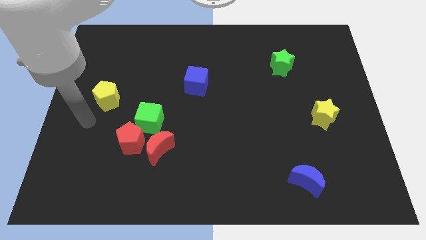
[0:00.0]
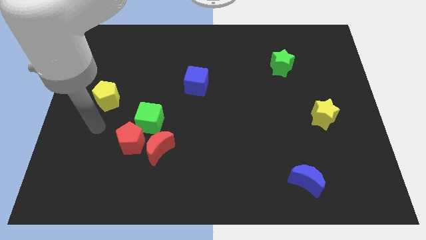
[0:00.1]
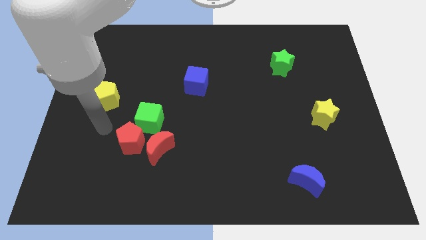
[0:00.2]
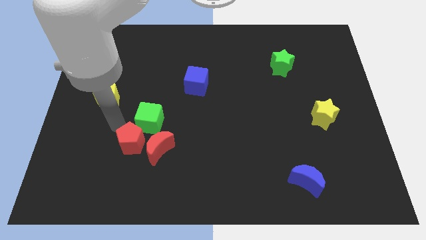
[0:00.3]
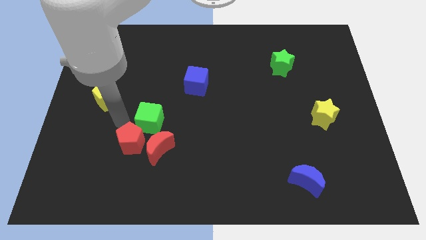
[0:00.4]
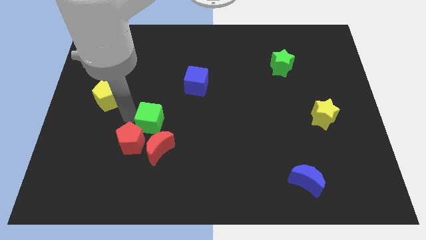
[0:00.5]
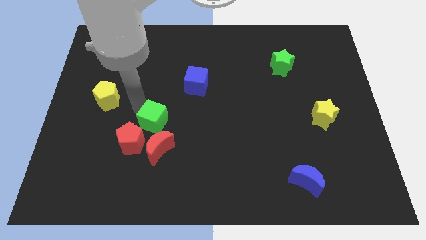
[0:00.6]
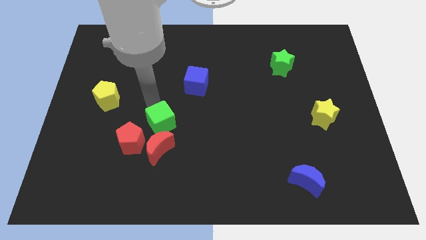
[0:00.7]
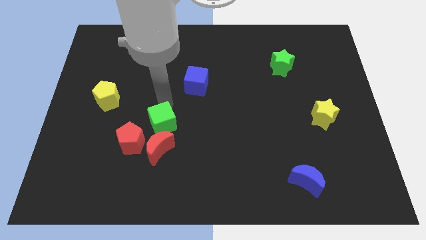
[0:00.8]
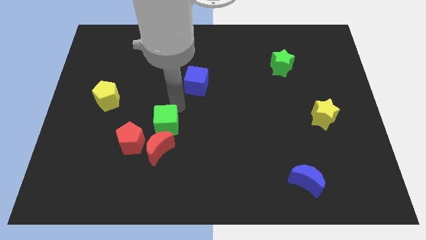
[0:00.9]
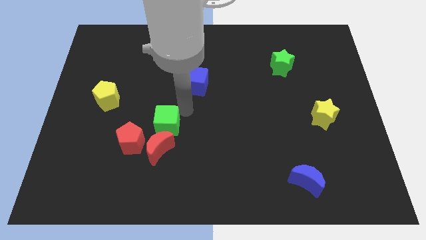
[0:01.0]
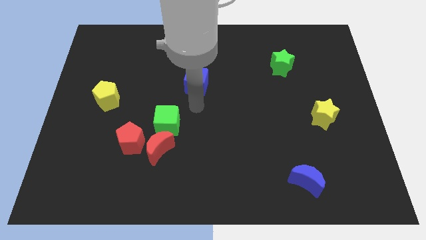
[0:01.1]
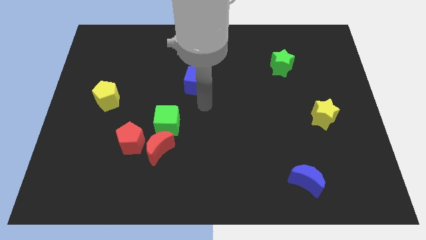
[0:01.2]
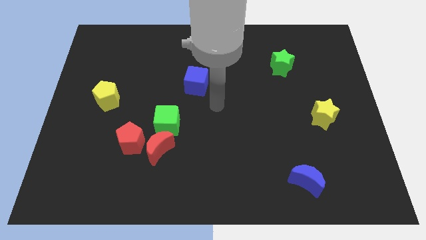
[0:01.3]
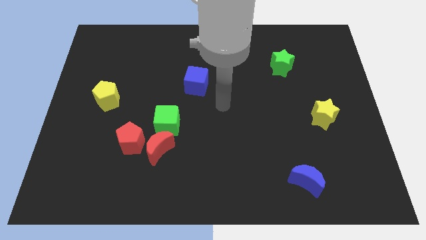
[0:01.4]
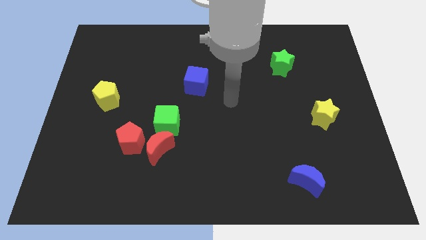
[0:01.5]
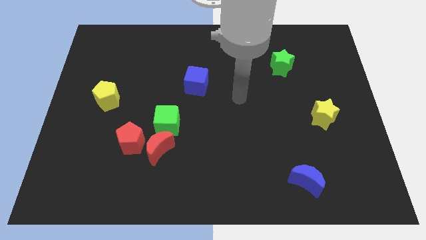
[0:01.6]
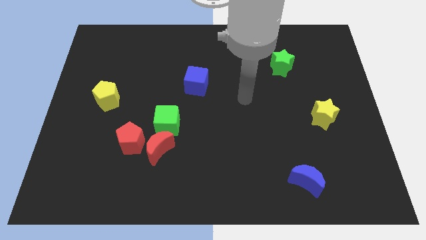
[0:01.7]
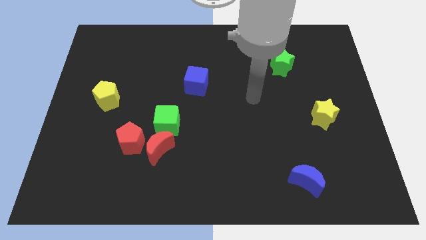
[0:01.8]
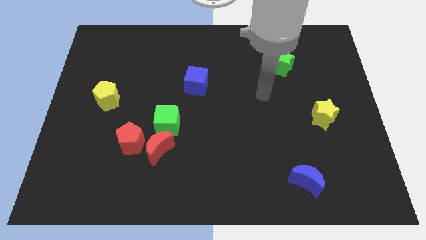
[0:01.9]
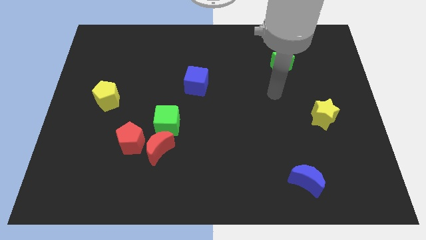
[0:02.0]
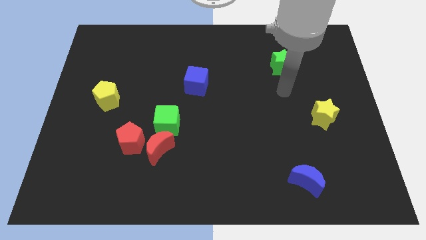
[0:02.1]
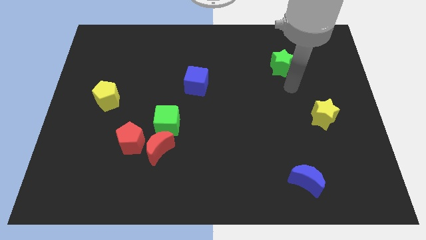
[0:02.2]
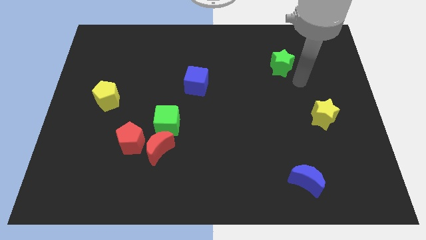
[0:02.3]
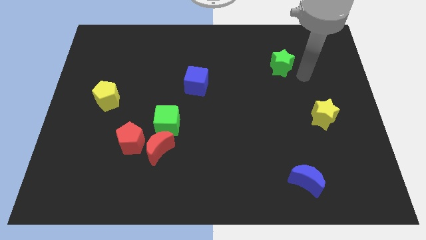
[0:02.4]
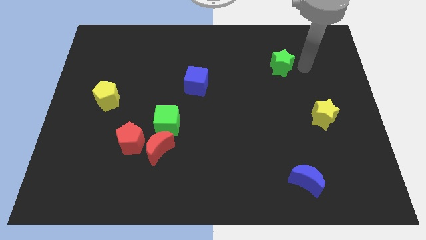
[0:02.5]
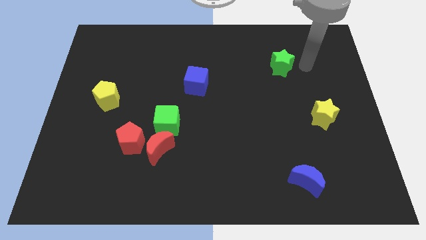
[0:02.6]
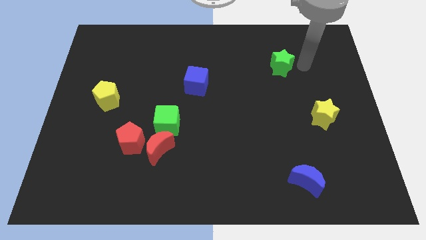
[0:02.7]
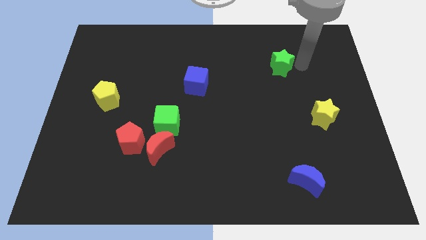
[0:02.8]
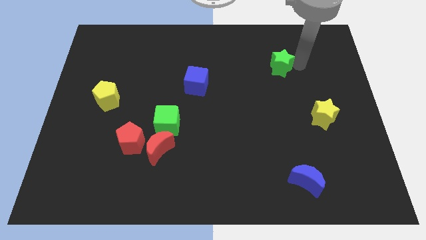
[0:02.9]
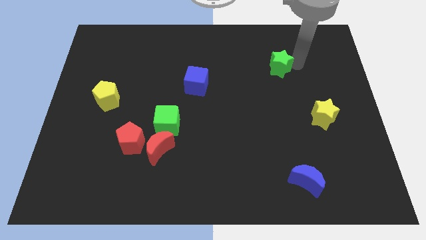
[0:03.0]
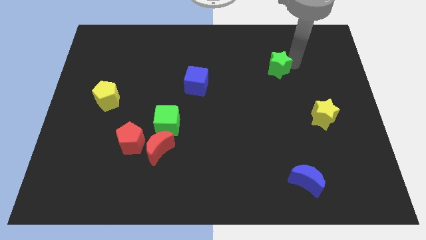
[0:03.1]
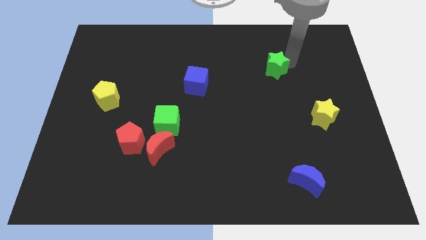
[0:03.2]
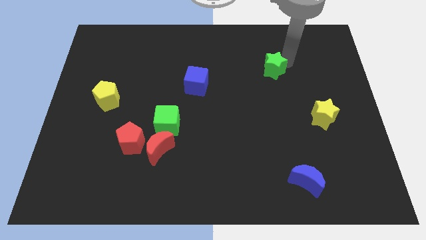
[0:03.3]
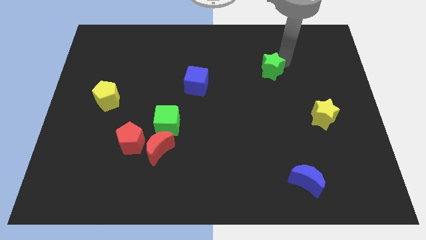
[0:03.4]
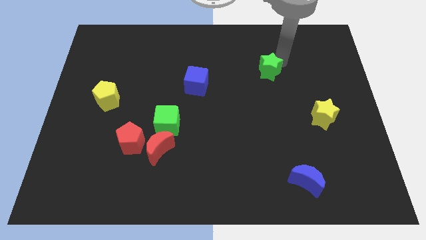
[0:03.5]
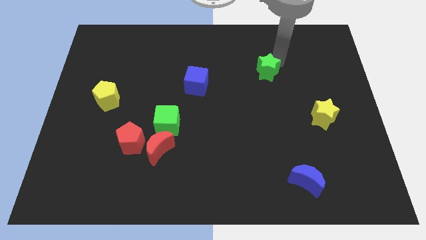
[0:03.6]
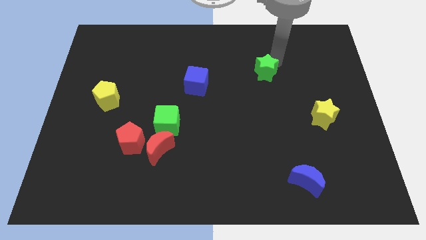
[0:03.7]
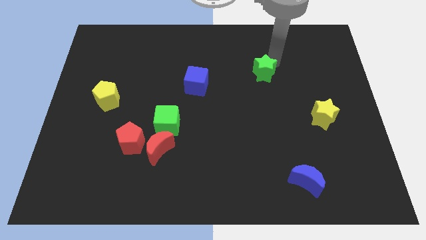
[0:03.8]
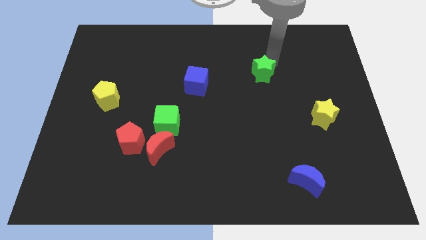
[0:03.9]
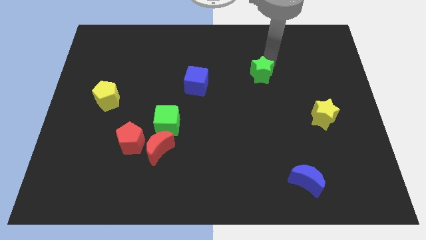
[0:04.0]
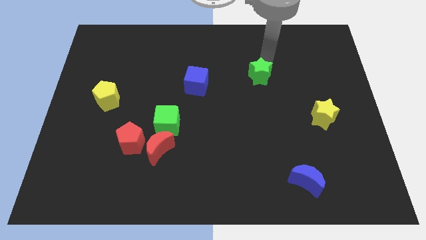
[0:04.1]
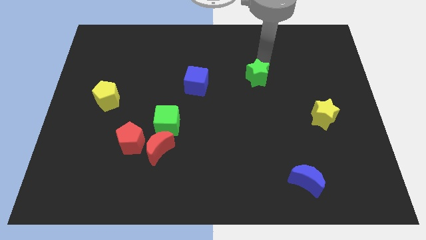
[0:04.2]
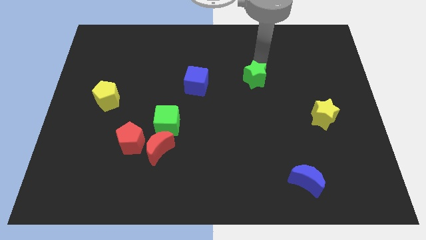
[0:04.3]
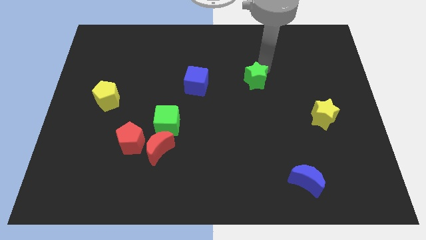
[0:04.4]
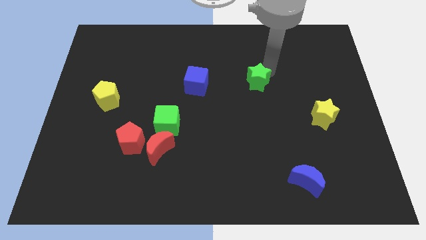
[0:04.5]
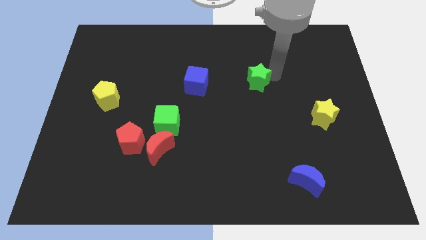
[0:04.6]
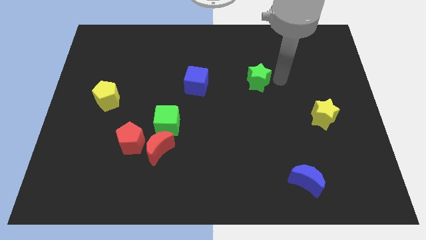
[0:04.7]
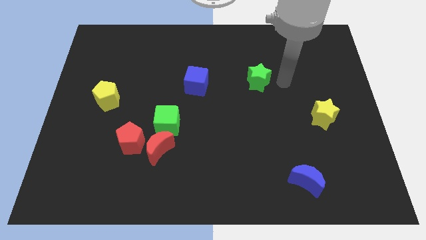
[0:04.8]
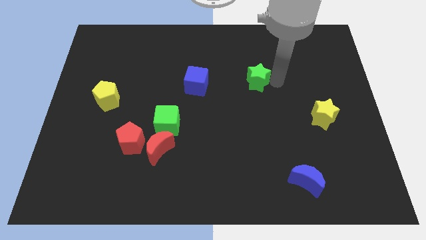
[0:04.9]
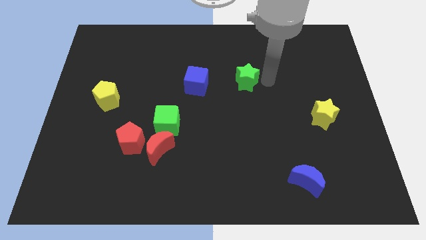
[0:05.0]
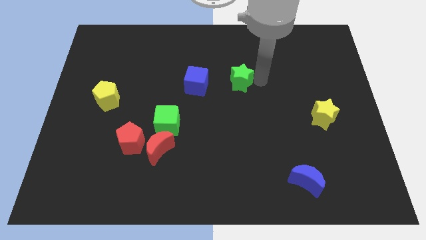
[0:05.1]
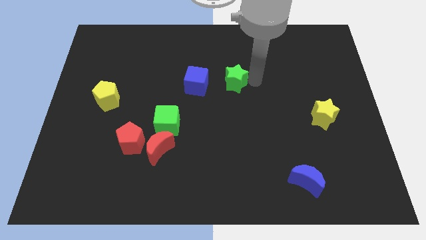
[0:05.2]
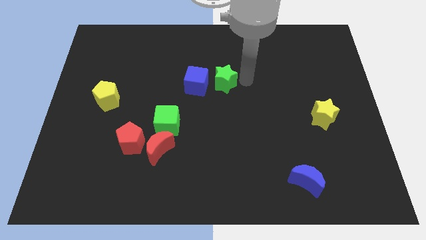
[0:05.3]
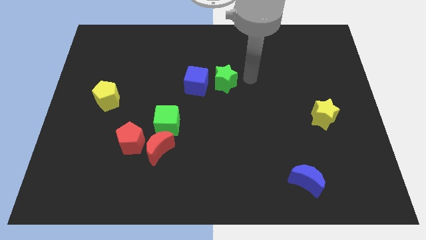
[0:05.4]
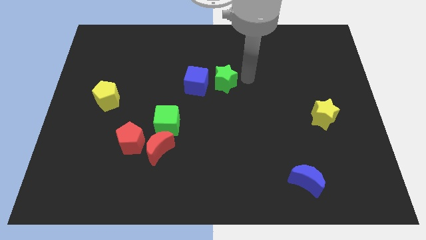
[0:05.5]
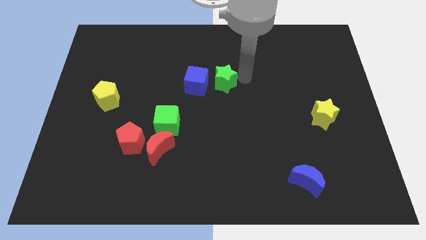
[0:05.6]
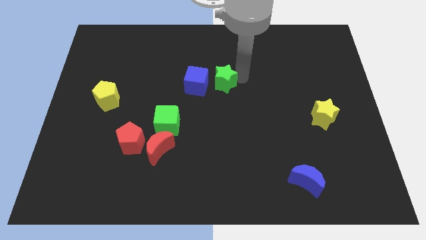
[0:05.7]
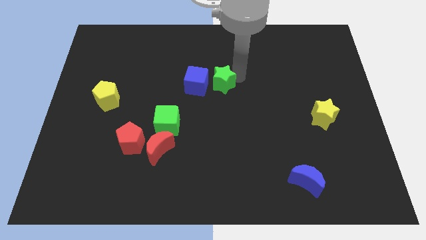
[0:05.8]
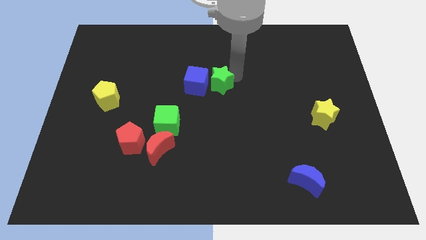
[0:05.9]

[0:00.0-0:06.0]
push the green star to the blue cube

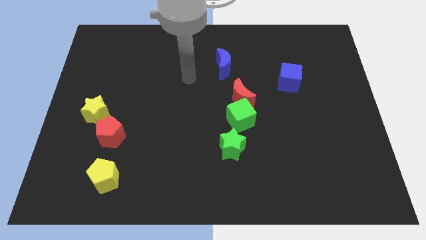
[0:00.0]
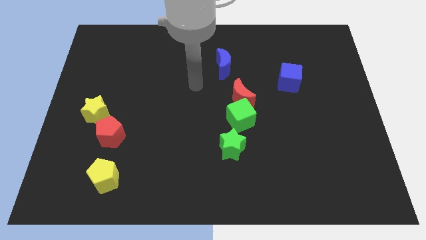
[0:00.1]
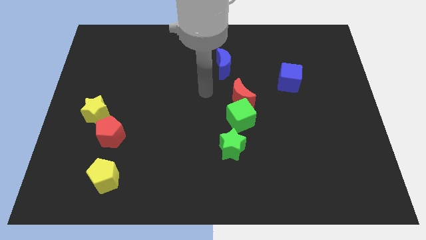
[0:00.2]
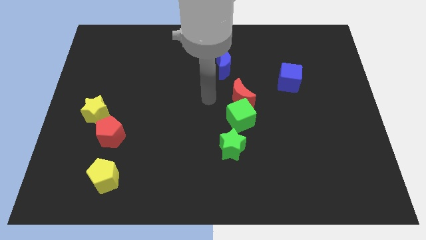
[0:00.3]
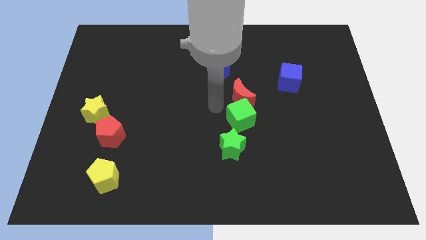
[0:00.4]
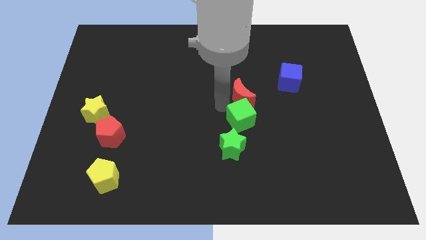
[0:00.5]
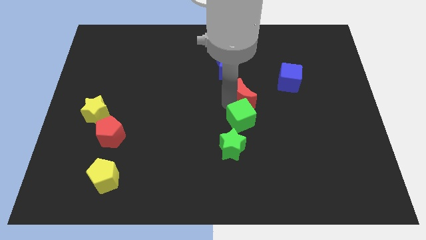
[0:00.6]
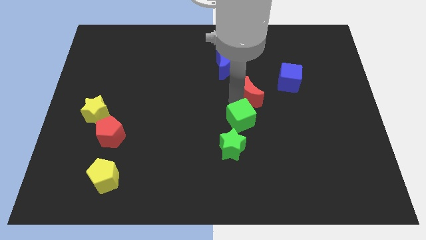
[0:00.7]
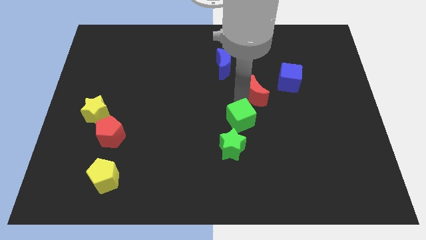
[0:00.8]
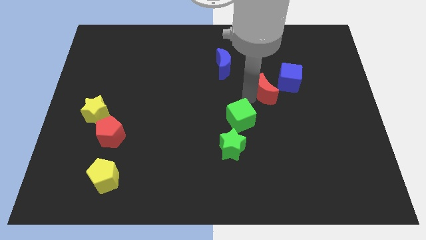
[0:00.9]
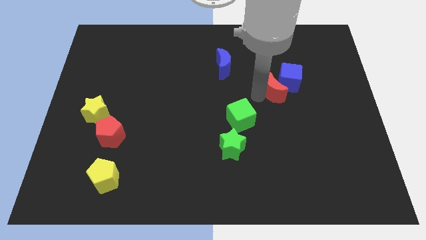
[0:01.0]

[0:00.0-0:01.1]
move the red moon towards the blue cube
